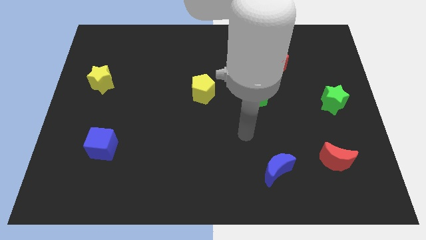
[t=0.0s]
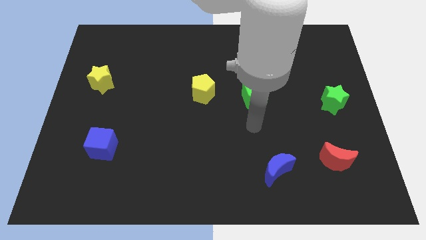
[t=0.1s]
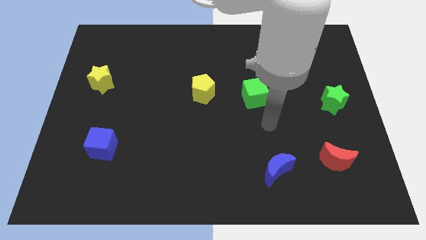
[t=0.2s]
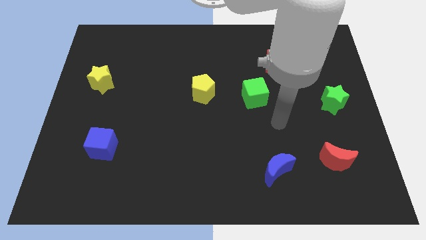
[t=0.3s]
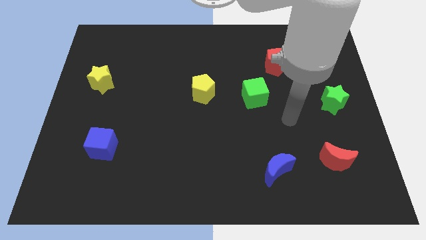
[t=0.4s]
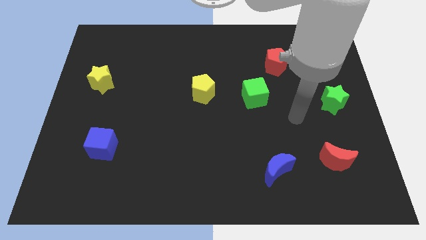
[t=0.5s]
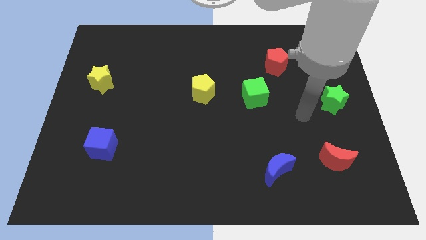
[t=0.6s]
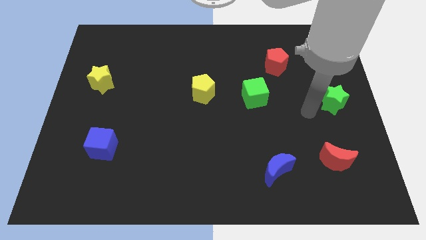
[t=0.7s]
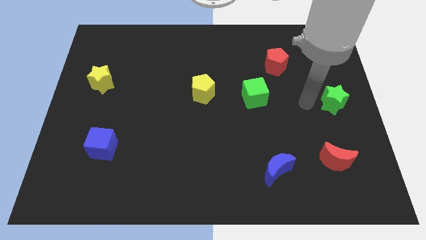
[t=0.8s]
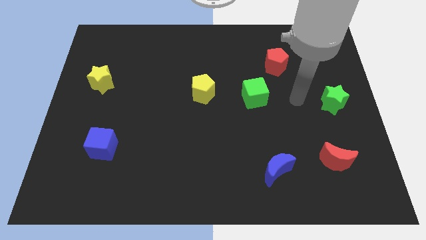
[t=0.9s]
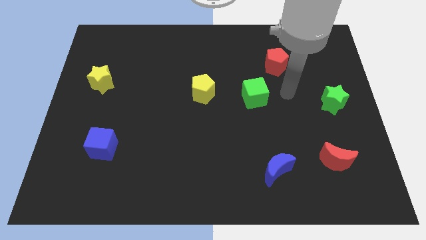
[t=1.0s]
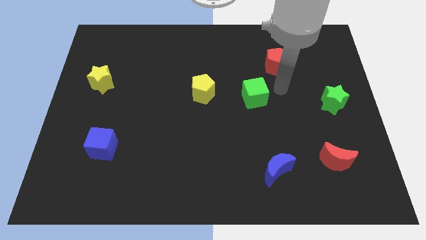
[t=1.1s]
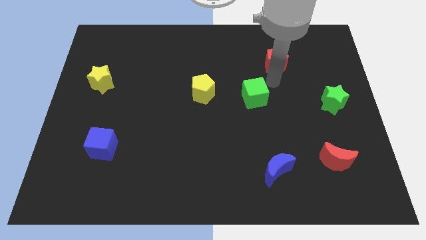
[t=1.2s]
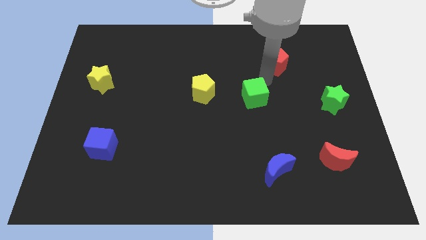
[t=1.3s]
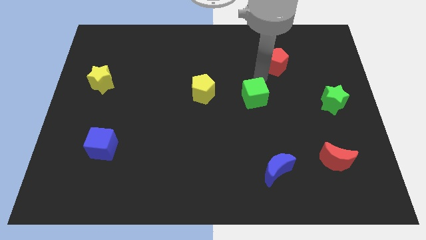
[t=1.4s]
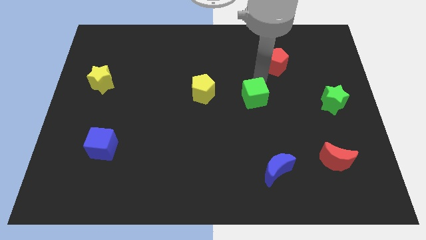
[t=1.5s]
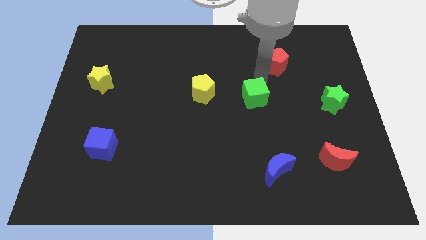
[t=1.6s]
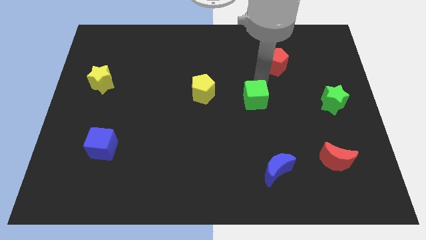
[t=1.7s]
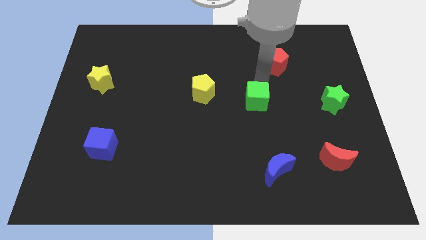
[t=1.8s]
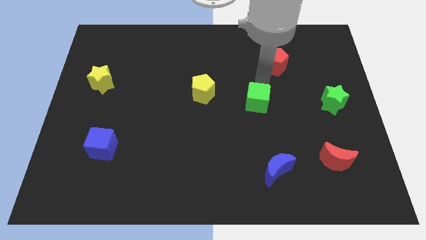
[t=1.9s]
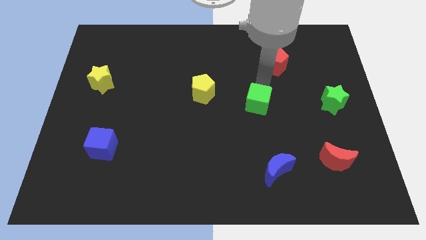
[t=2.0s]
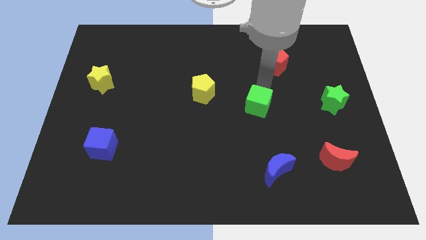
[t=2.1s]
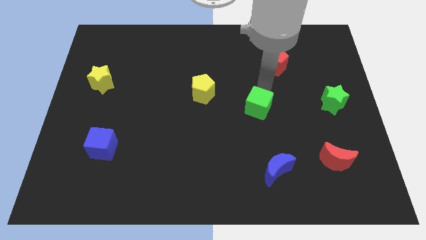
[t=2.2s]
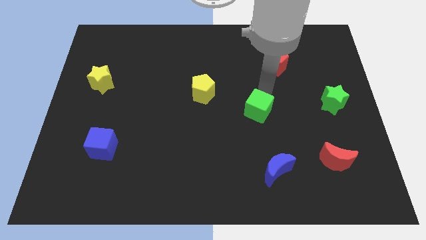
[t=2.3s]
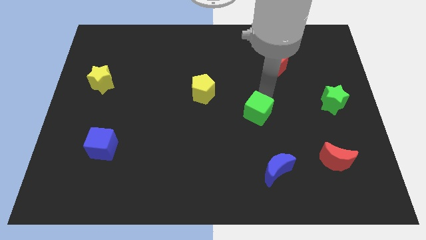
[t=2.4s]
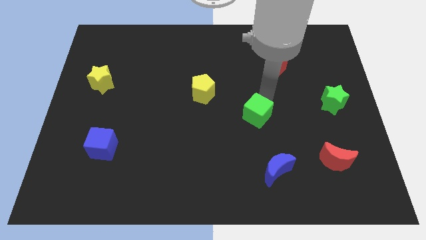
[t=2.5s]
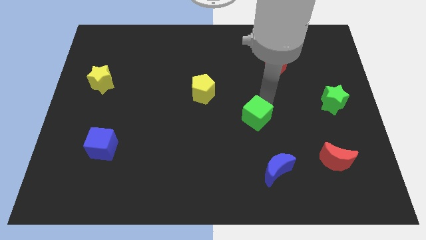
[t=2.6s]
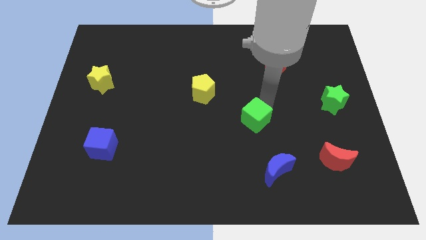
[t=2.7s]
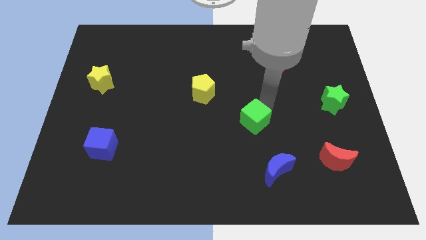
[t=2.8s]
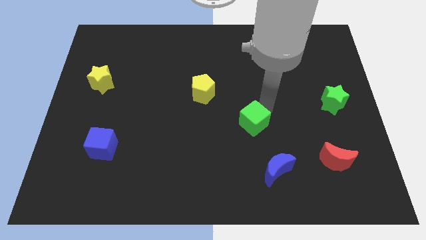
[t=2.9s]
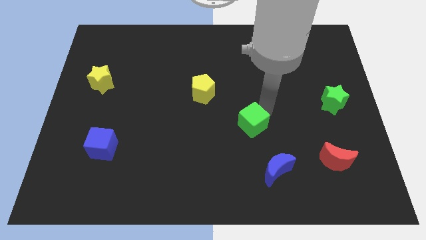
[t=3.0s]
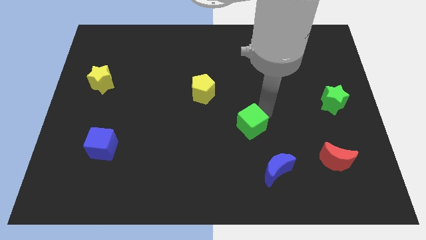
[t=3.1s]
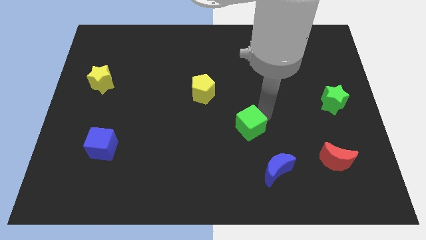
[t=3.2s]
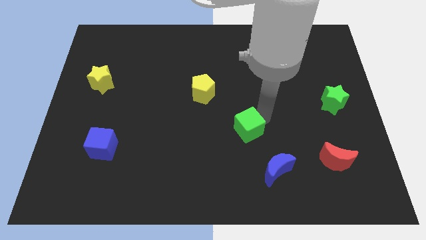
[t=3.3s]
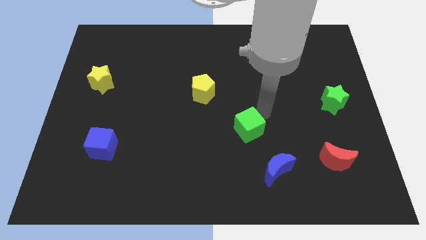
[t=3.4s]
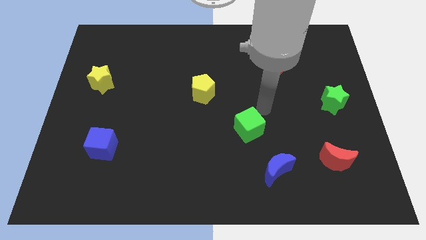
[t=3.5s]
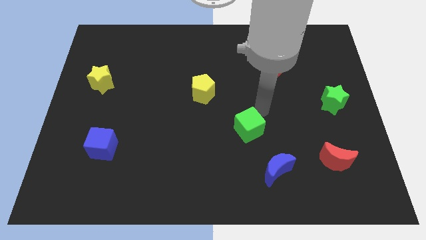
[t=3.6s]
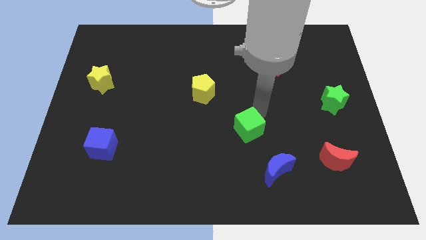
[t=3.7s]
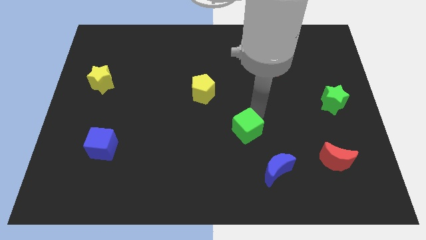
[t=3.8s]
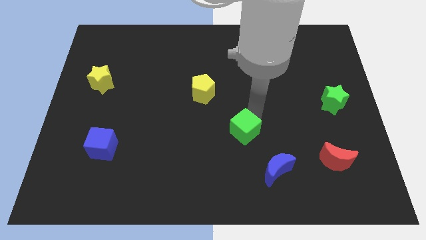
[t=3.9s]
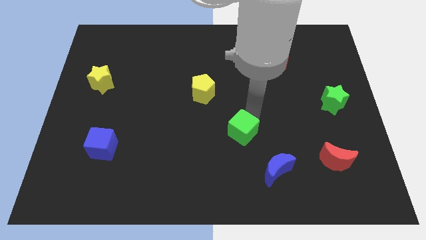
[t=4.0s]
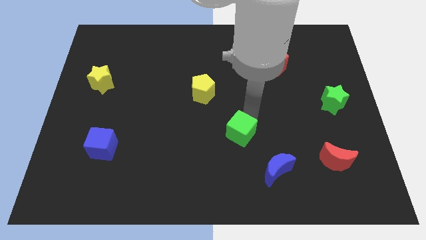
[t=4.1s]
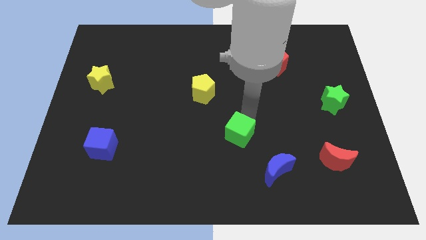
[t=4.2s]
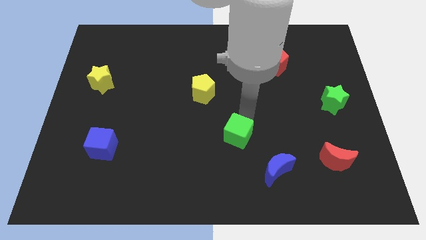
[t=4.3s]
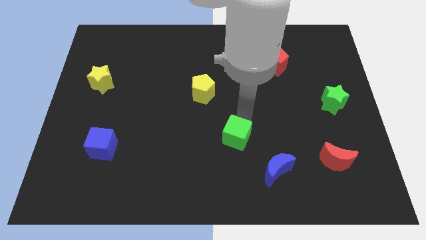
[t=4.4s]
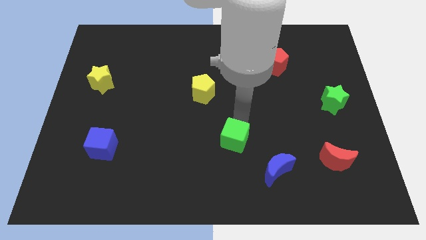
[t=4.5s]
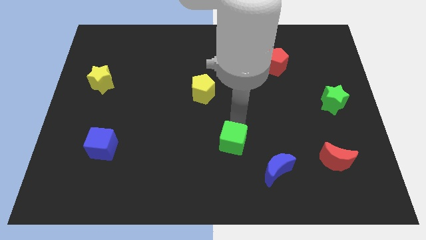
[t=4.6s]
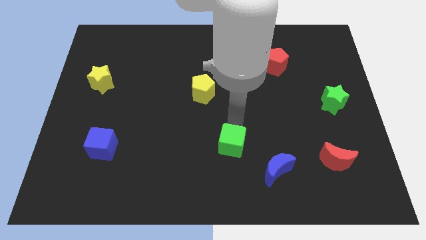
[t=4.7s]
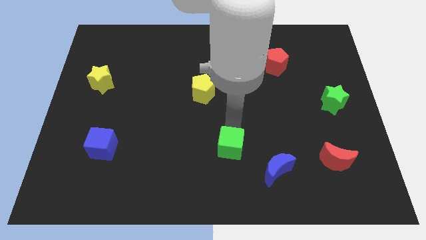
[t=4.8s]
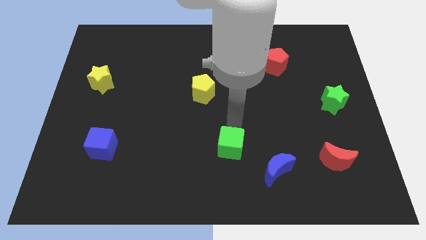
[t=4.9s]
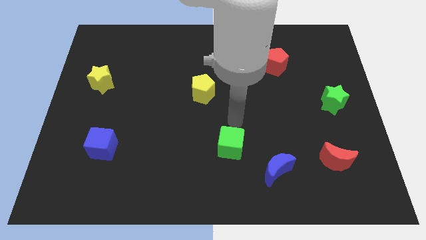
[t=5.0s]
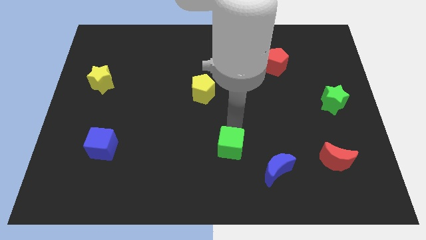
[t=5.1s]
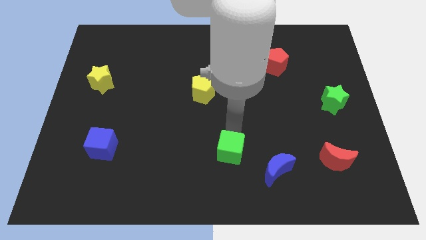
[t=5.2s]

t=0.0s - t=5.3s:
slide the green cube just left of the blue moon

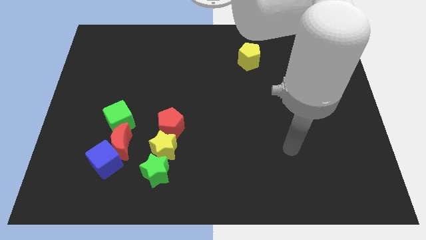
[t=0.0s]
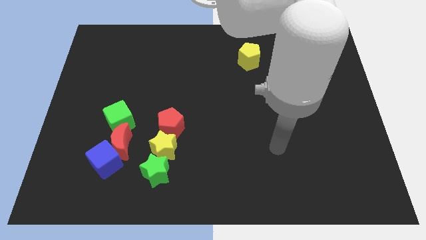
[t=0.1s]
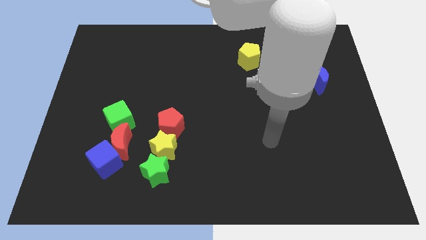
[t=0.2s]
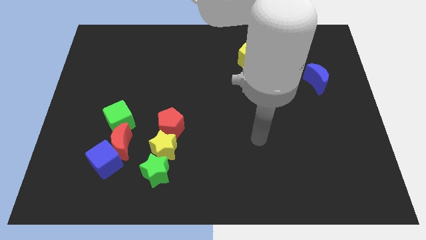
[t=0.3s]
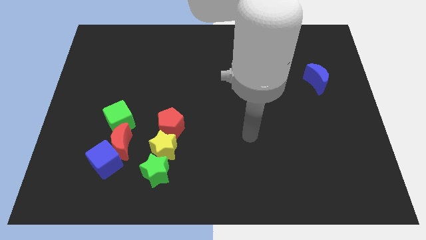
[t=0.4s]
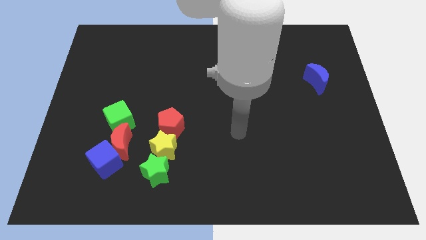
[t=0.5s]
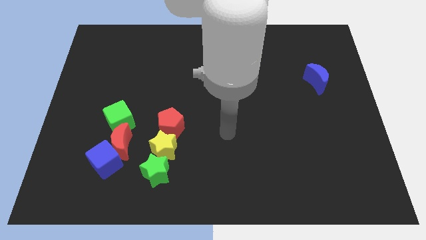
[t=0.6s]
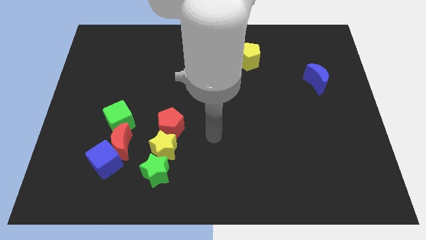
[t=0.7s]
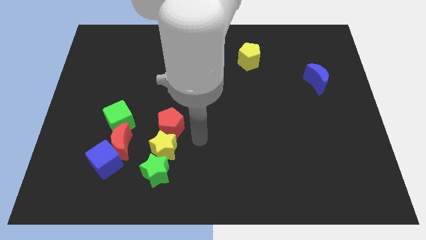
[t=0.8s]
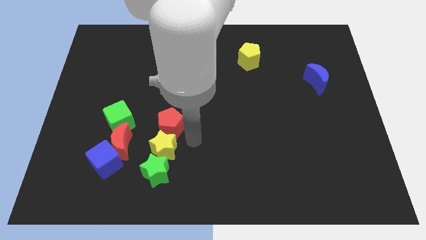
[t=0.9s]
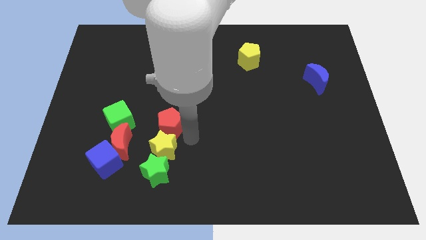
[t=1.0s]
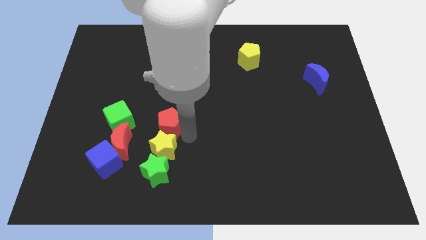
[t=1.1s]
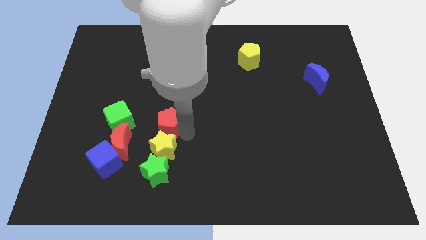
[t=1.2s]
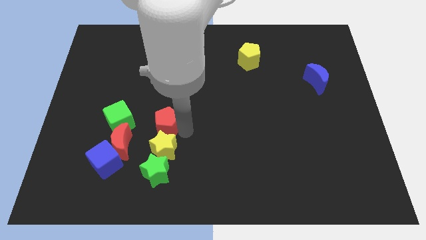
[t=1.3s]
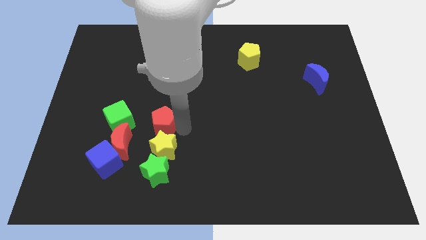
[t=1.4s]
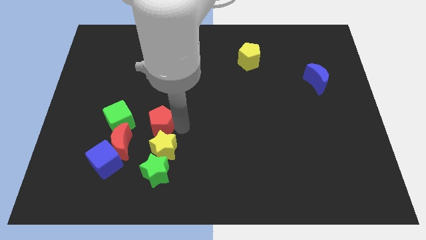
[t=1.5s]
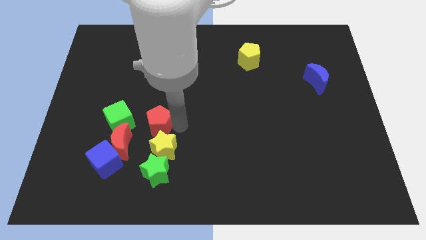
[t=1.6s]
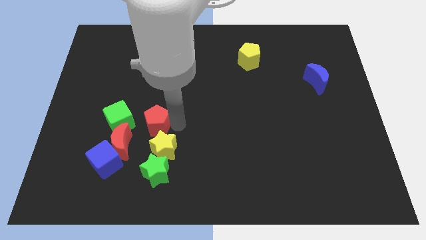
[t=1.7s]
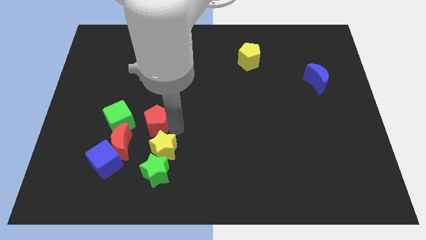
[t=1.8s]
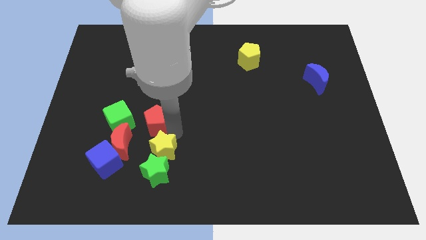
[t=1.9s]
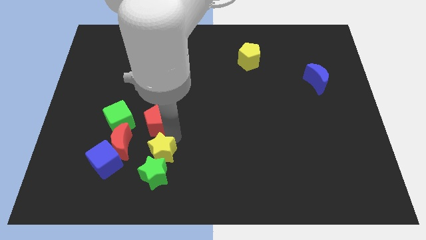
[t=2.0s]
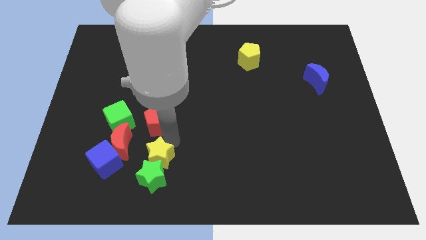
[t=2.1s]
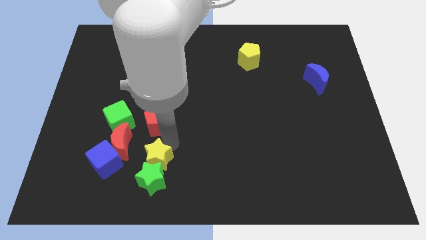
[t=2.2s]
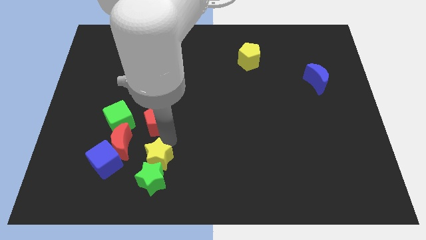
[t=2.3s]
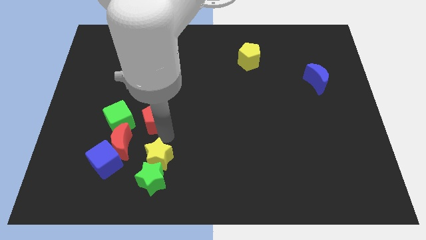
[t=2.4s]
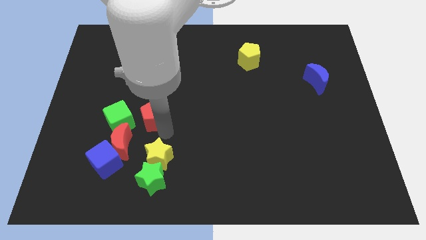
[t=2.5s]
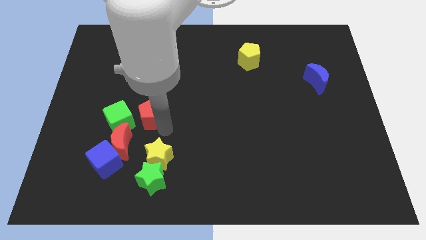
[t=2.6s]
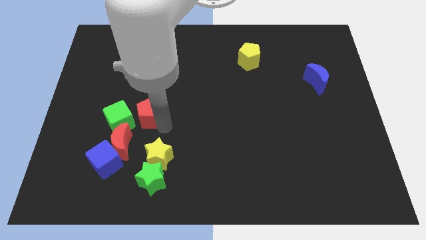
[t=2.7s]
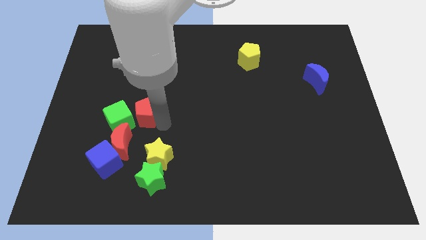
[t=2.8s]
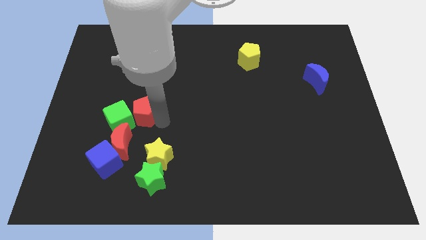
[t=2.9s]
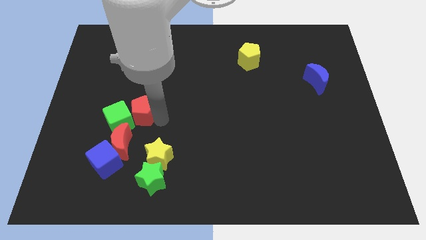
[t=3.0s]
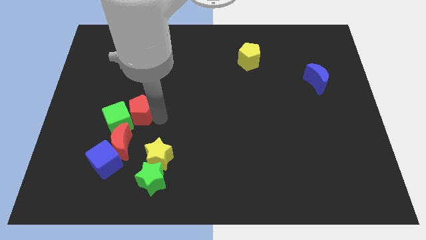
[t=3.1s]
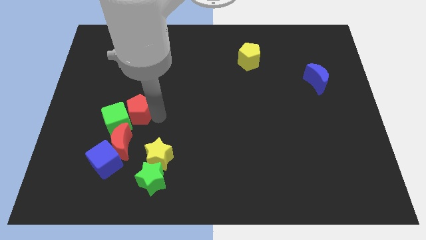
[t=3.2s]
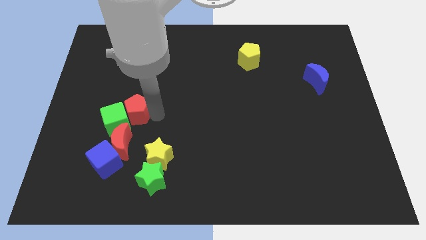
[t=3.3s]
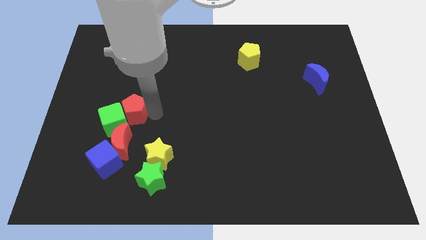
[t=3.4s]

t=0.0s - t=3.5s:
put the red pentagon to the top of the blue cube
